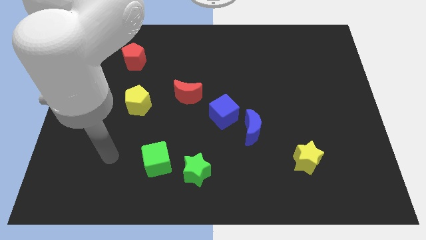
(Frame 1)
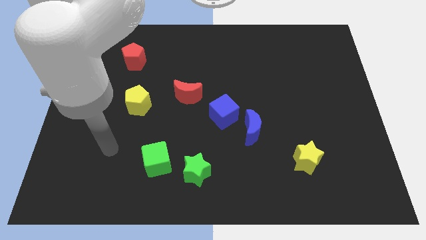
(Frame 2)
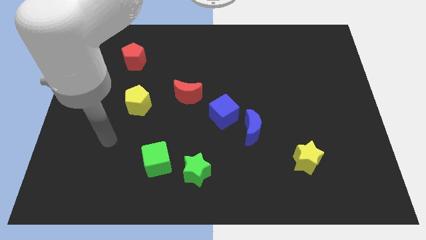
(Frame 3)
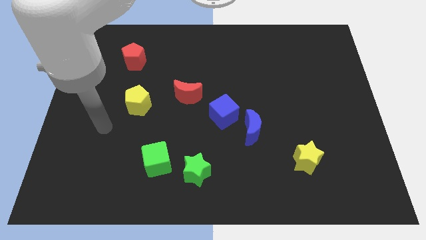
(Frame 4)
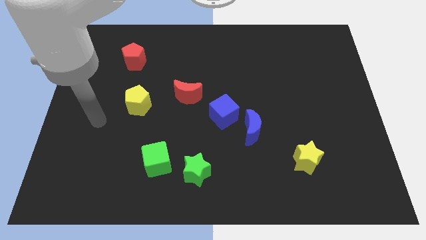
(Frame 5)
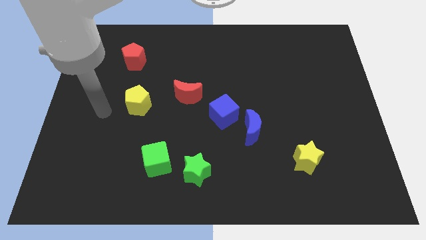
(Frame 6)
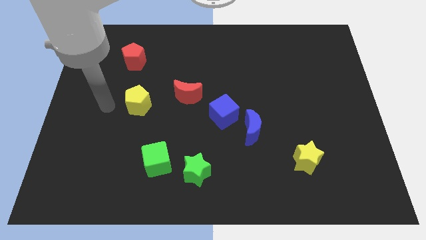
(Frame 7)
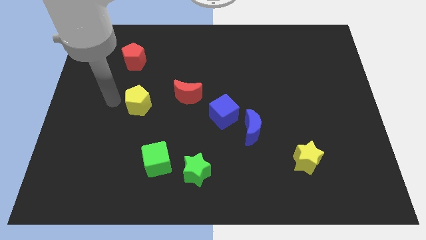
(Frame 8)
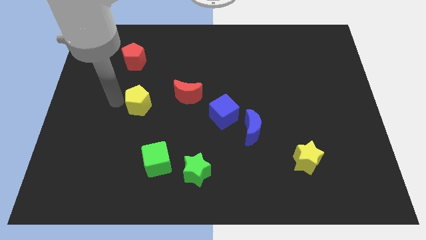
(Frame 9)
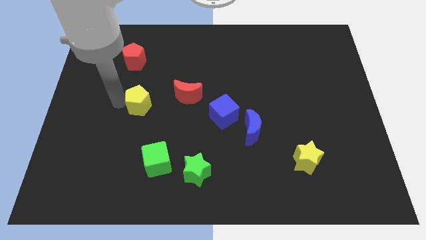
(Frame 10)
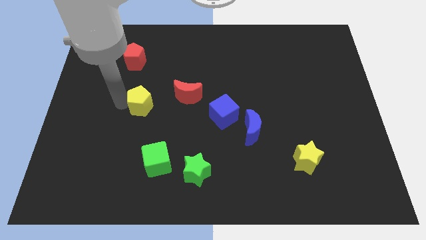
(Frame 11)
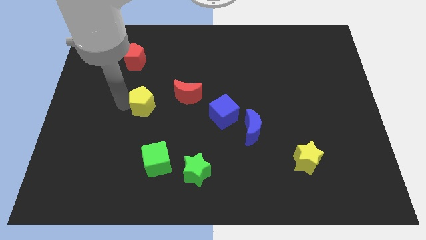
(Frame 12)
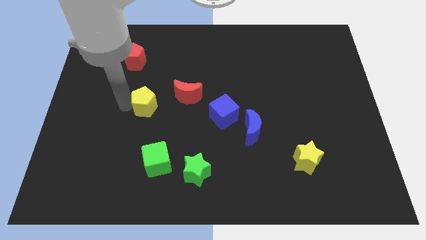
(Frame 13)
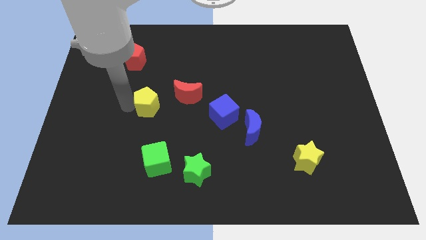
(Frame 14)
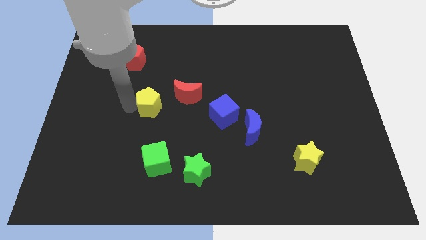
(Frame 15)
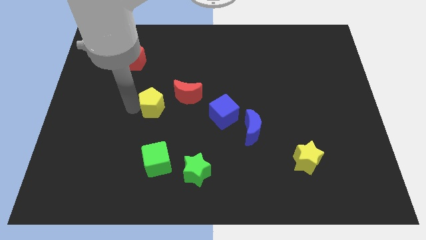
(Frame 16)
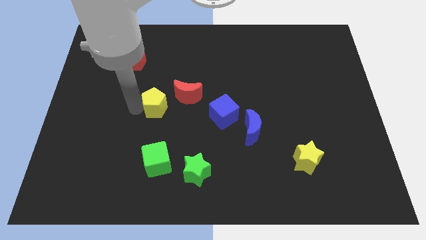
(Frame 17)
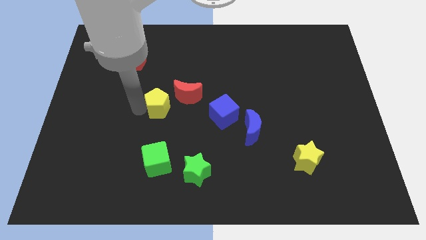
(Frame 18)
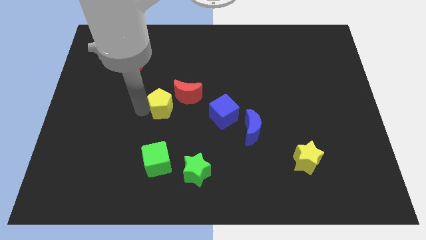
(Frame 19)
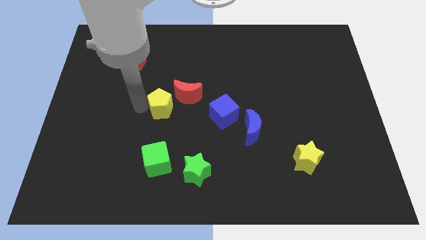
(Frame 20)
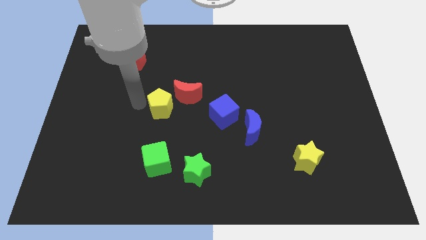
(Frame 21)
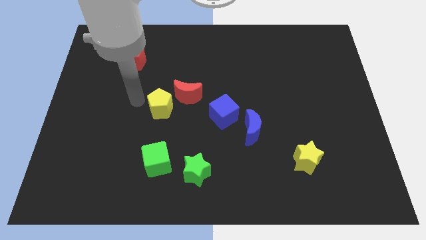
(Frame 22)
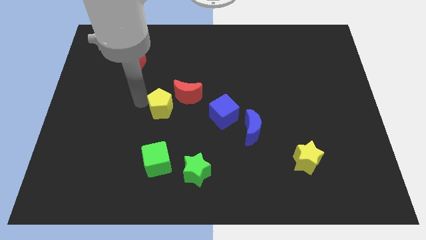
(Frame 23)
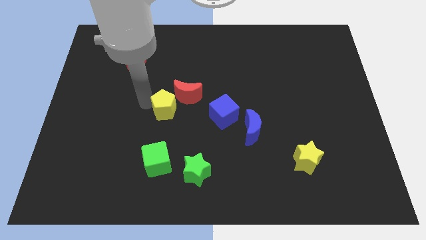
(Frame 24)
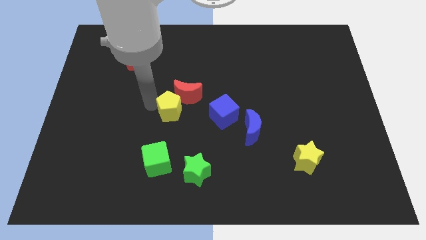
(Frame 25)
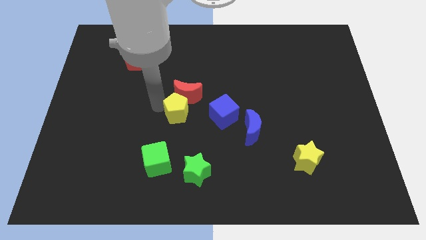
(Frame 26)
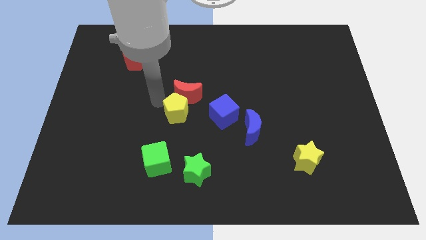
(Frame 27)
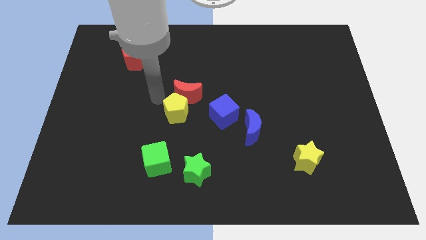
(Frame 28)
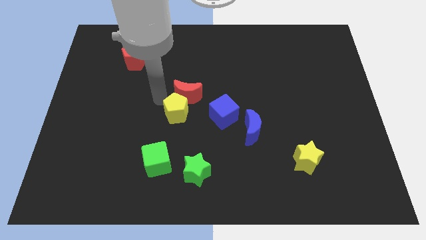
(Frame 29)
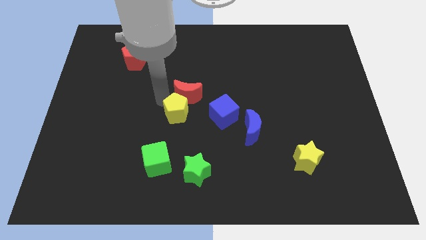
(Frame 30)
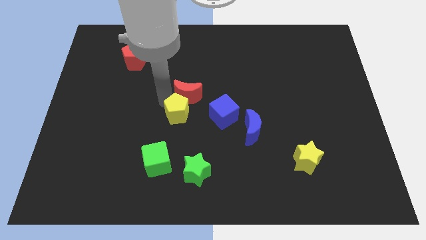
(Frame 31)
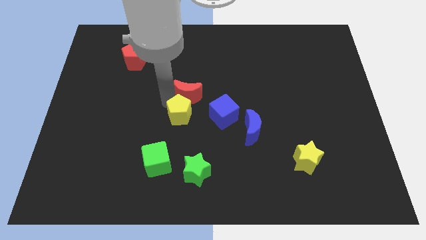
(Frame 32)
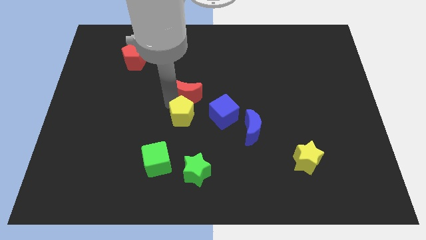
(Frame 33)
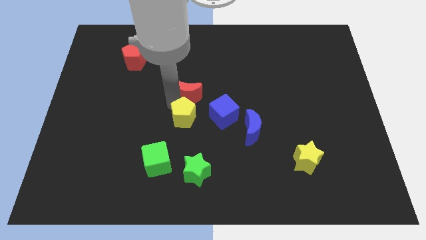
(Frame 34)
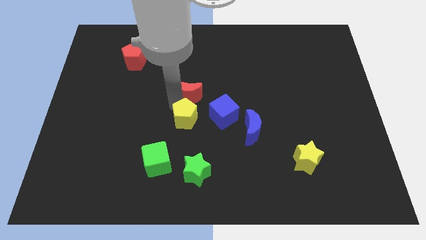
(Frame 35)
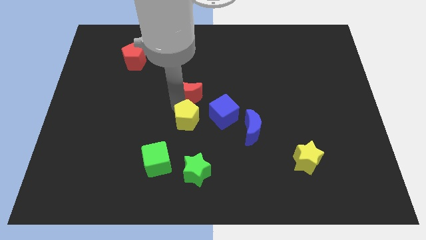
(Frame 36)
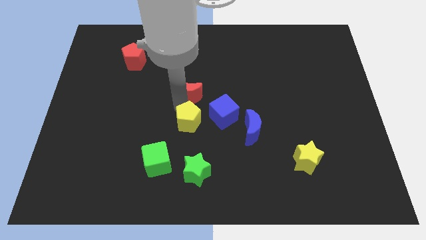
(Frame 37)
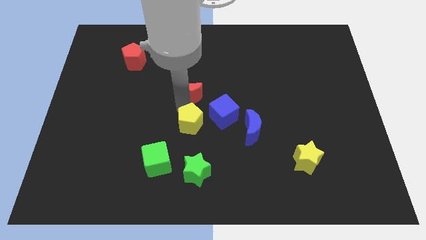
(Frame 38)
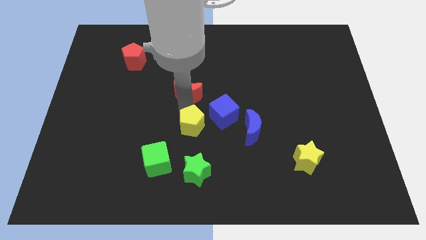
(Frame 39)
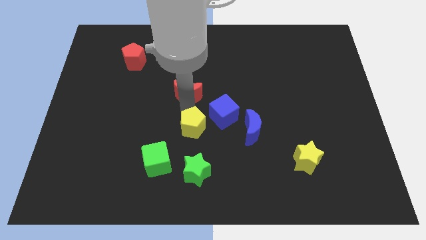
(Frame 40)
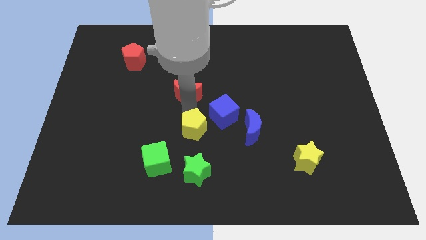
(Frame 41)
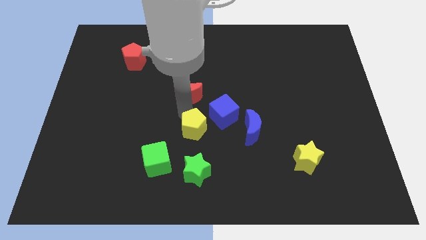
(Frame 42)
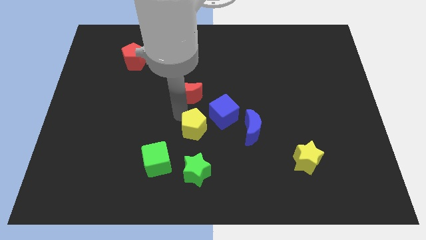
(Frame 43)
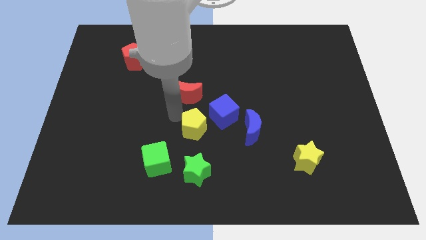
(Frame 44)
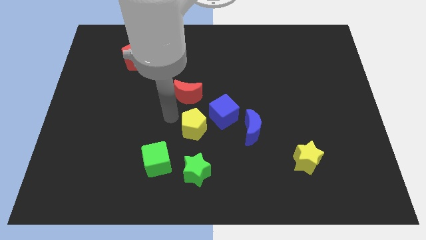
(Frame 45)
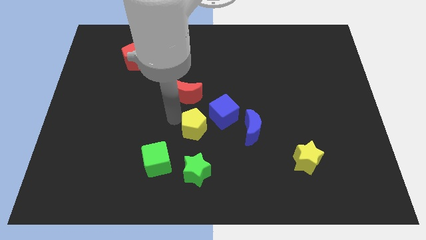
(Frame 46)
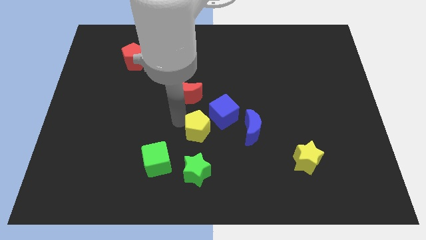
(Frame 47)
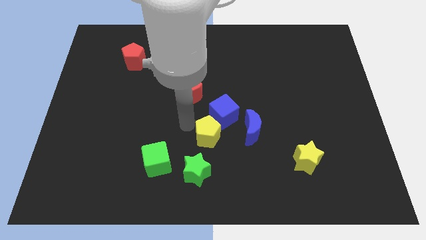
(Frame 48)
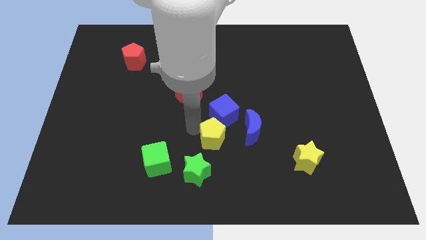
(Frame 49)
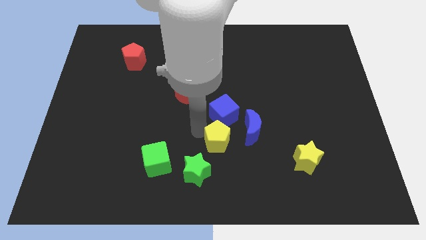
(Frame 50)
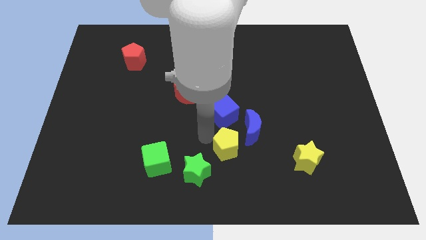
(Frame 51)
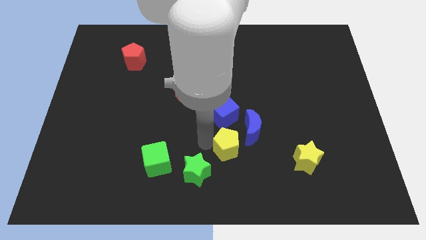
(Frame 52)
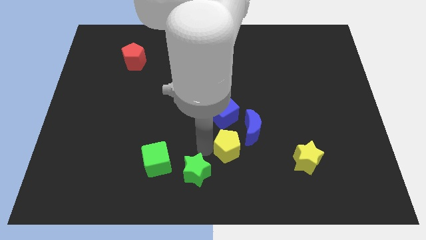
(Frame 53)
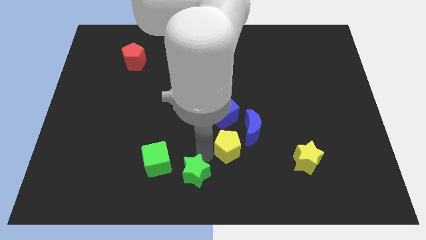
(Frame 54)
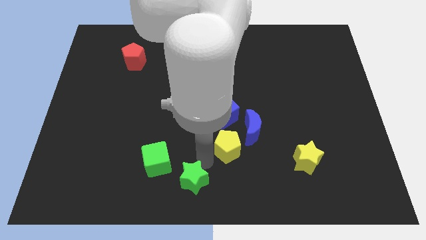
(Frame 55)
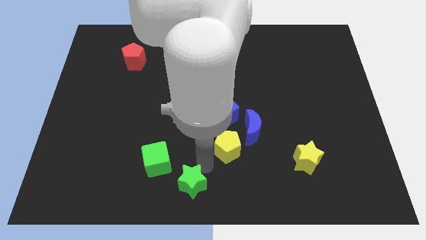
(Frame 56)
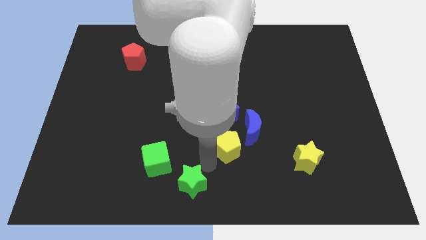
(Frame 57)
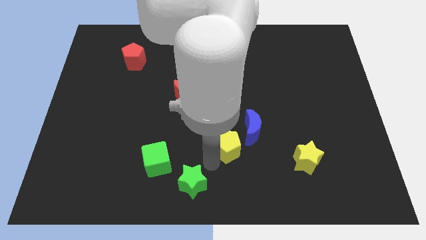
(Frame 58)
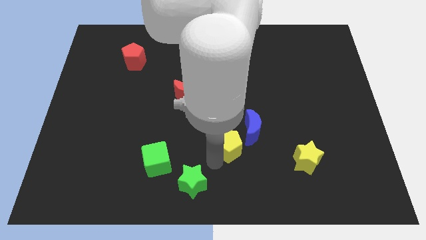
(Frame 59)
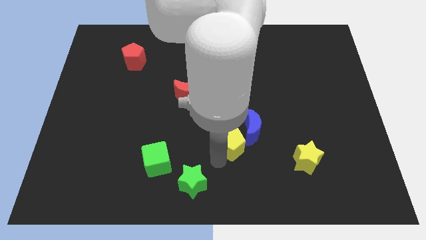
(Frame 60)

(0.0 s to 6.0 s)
put the yellow pentagon to the blue moon
